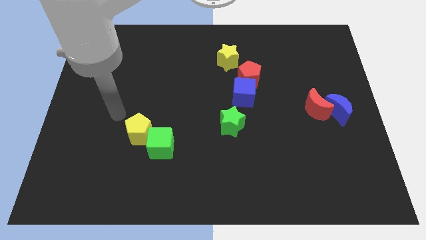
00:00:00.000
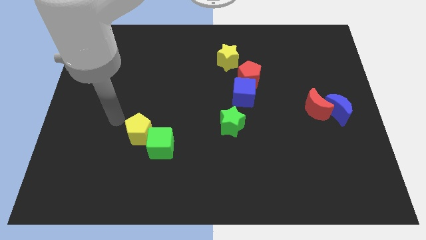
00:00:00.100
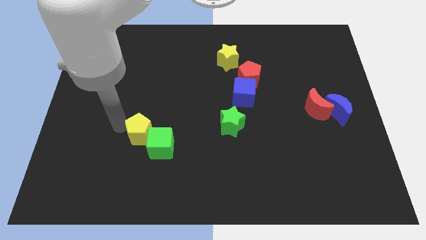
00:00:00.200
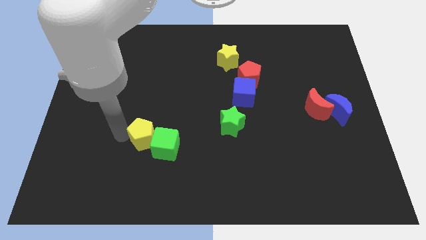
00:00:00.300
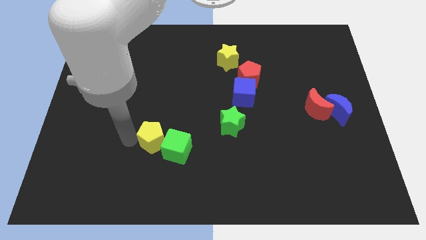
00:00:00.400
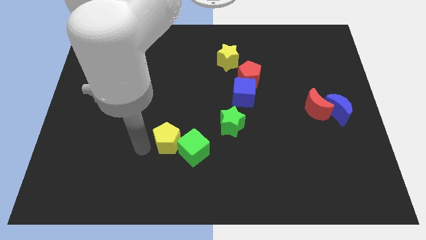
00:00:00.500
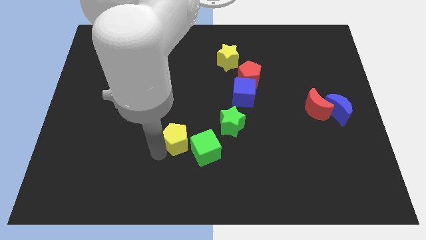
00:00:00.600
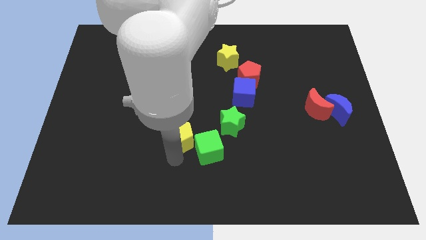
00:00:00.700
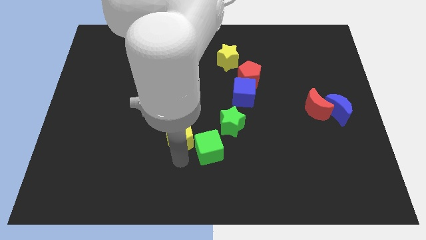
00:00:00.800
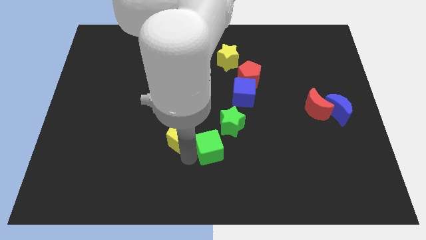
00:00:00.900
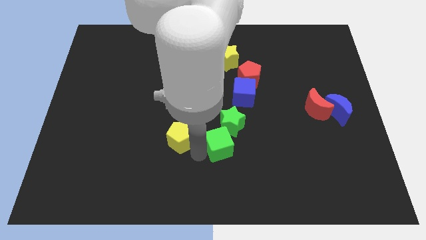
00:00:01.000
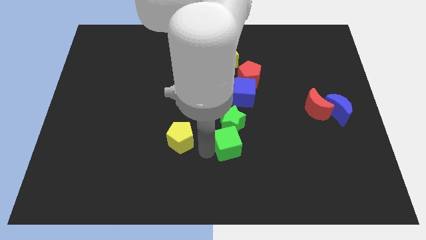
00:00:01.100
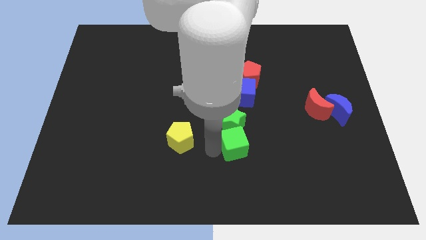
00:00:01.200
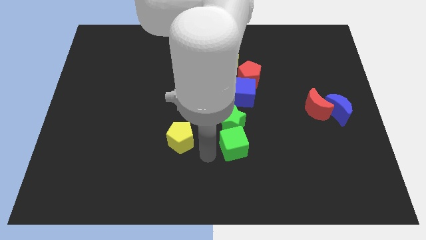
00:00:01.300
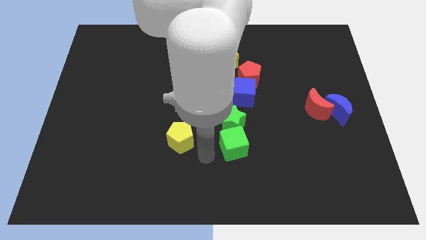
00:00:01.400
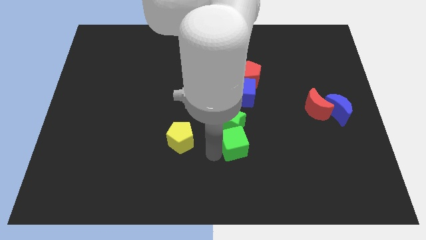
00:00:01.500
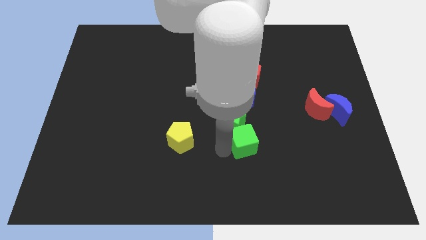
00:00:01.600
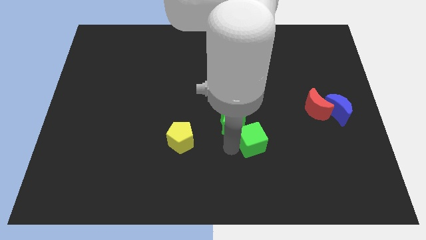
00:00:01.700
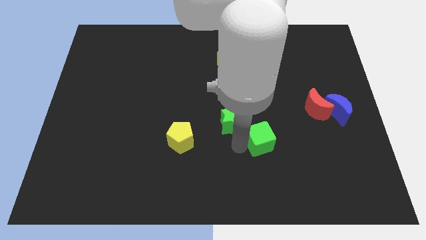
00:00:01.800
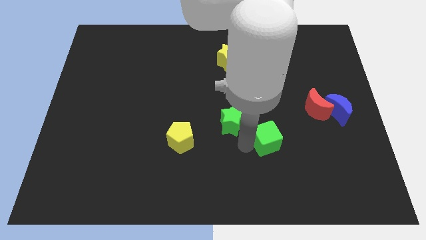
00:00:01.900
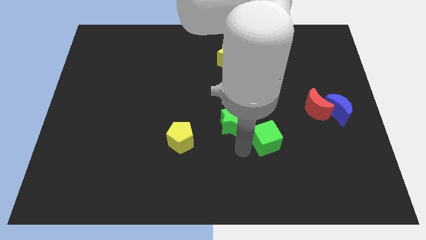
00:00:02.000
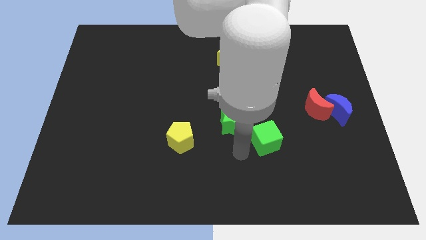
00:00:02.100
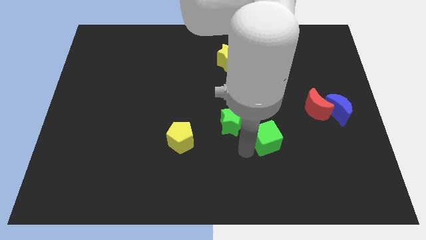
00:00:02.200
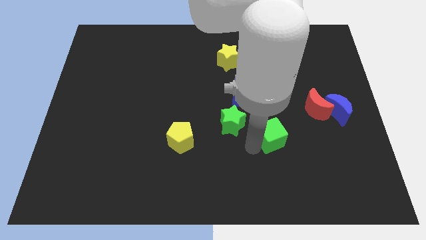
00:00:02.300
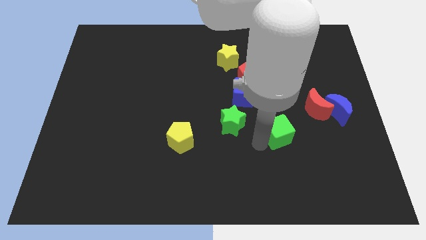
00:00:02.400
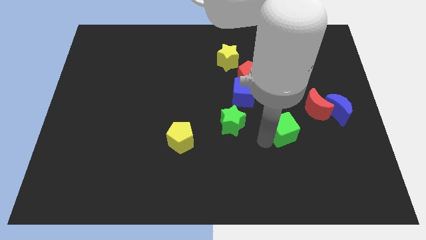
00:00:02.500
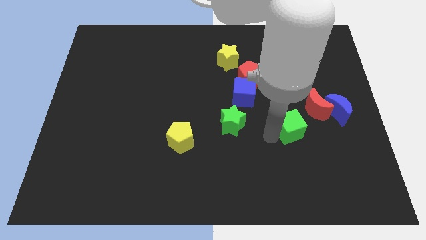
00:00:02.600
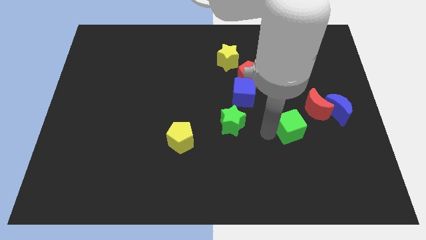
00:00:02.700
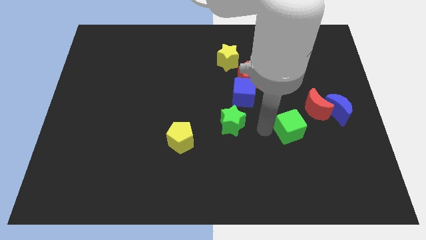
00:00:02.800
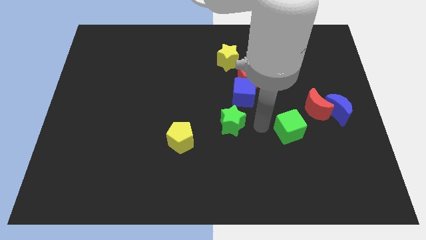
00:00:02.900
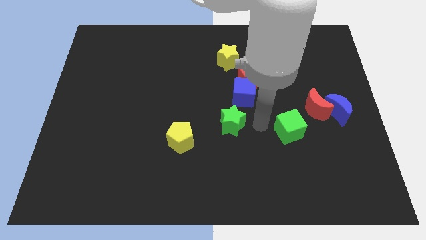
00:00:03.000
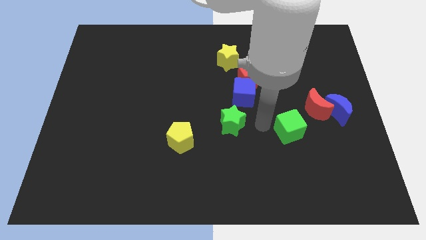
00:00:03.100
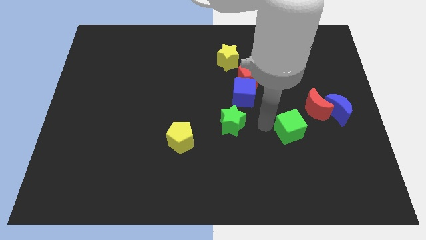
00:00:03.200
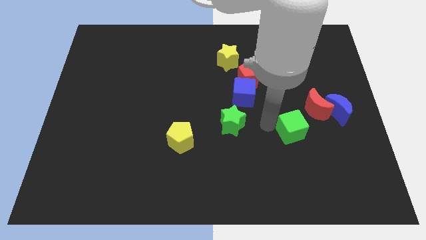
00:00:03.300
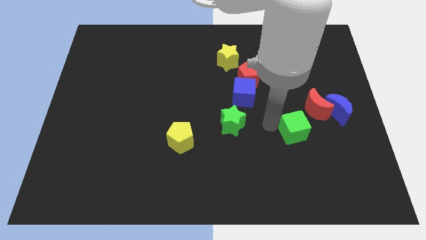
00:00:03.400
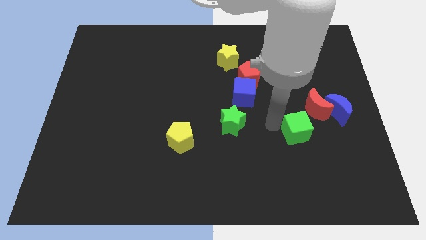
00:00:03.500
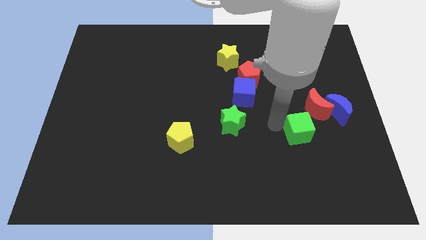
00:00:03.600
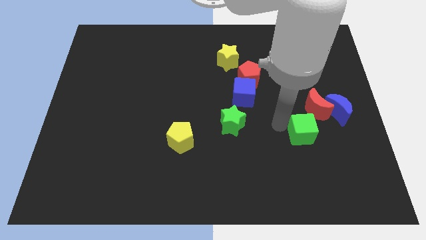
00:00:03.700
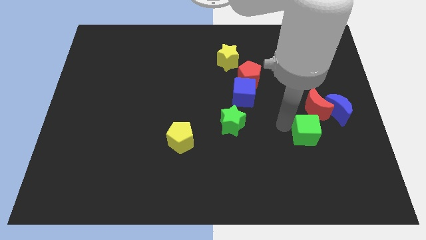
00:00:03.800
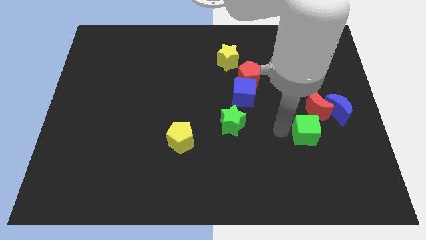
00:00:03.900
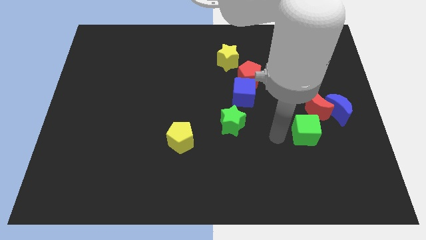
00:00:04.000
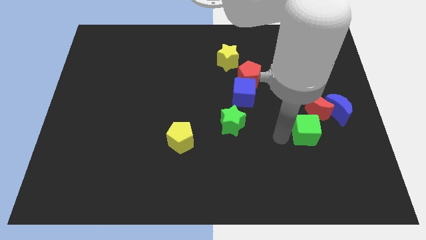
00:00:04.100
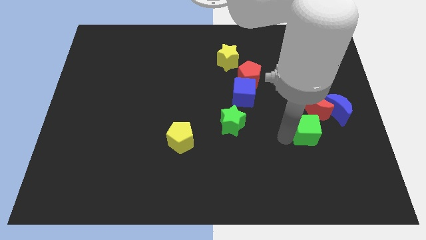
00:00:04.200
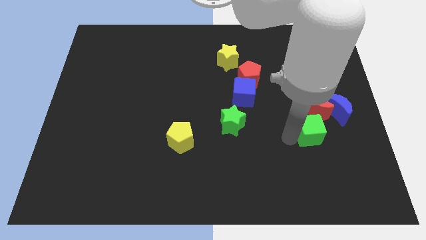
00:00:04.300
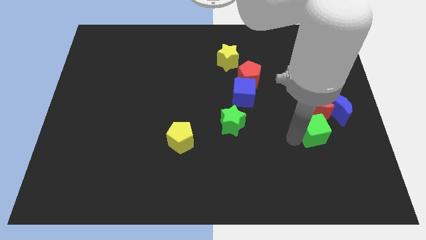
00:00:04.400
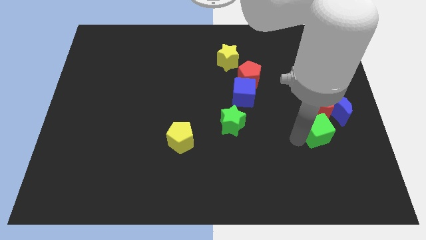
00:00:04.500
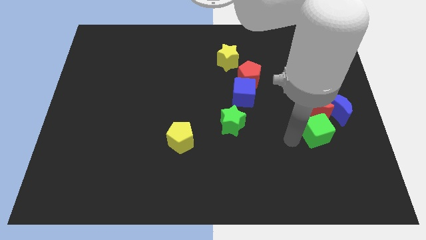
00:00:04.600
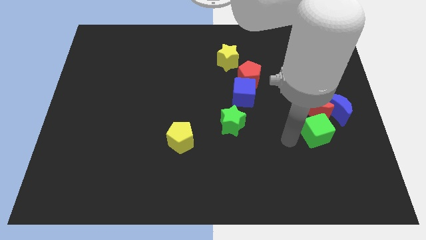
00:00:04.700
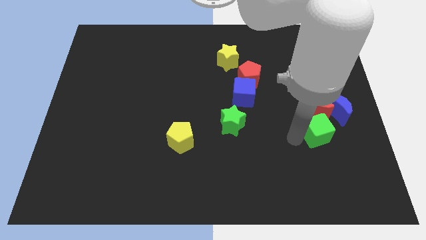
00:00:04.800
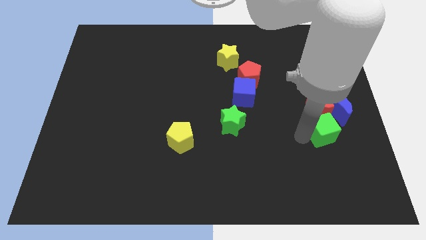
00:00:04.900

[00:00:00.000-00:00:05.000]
put the green cube to the bottom right of the red moon

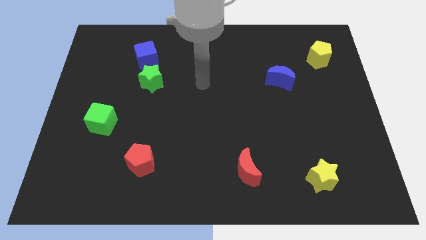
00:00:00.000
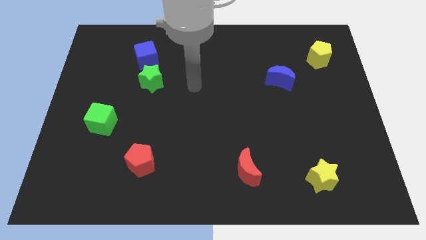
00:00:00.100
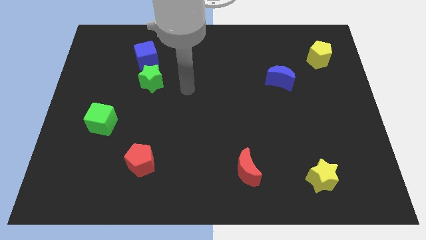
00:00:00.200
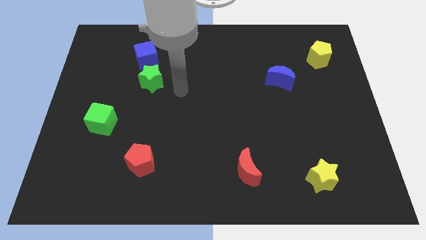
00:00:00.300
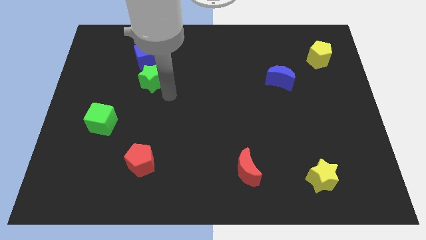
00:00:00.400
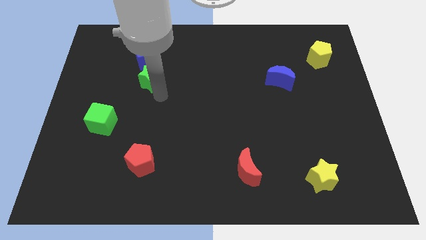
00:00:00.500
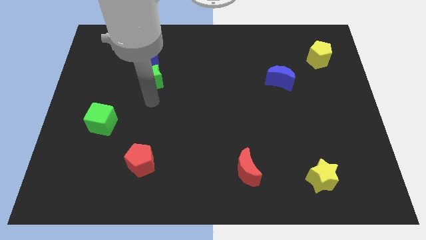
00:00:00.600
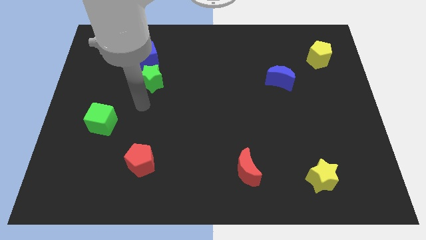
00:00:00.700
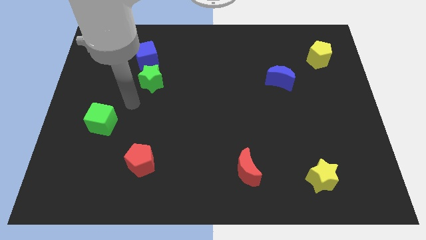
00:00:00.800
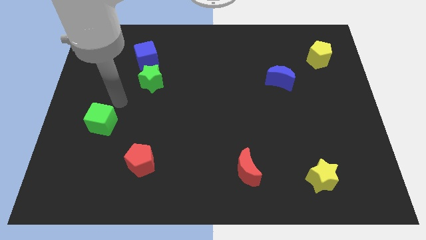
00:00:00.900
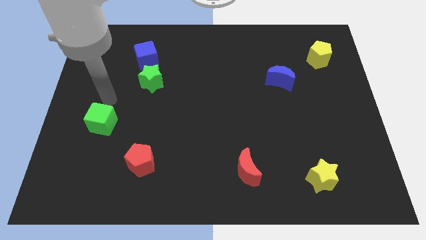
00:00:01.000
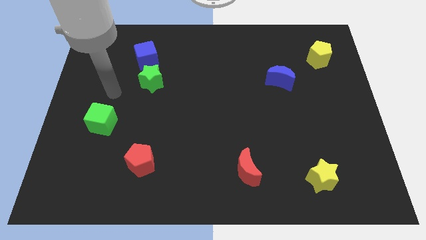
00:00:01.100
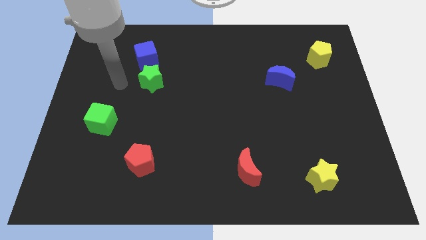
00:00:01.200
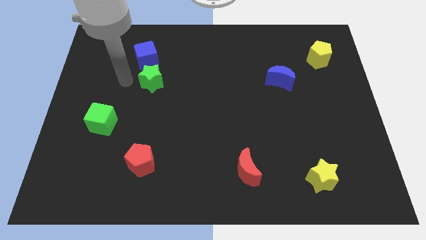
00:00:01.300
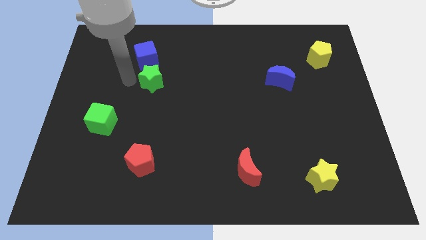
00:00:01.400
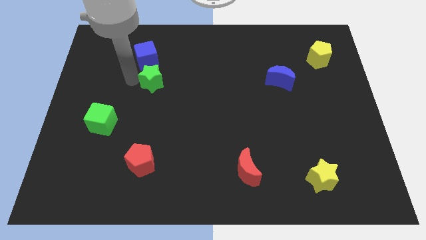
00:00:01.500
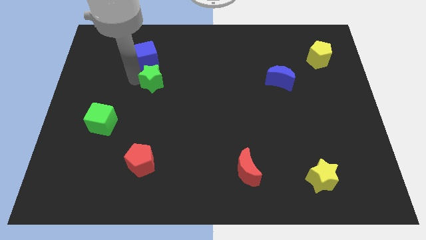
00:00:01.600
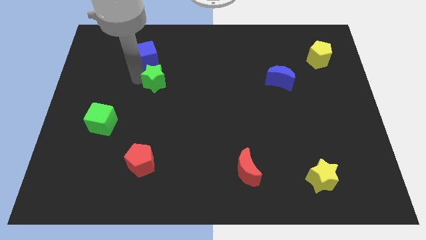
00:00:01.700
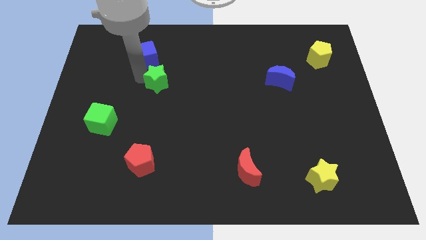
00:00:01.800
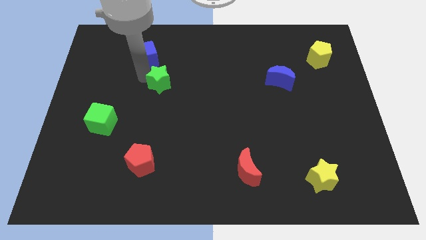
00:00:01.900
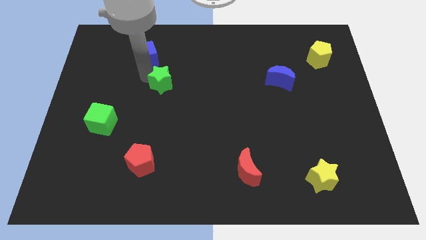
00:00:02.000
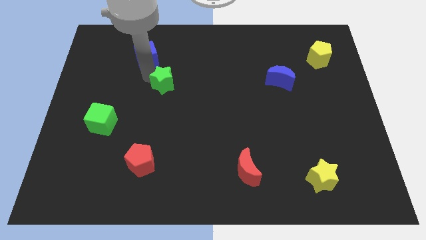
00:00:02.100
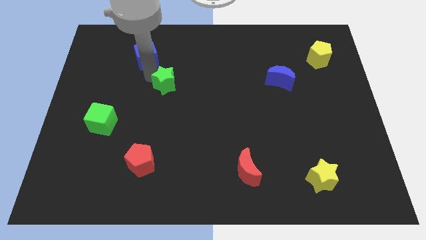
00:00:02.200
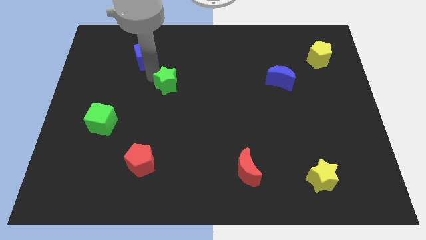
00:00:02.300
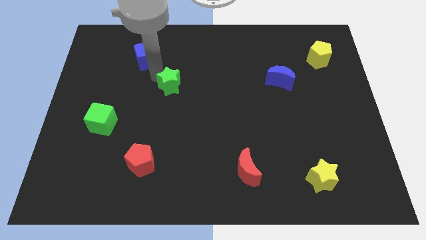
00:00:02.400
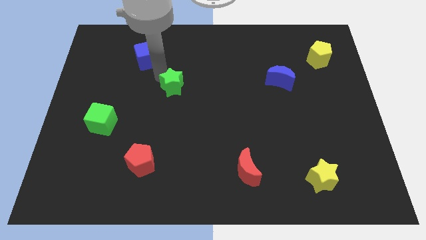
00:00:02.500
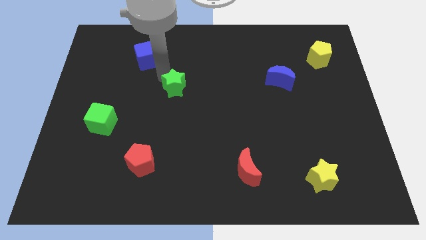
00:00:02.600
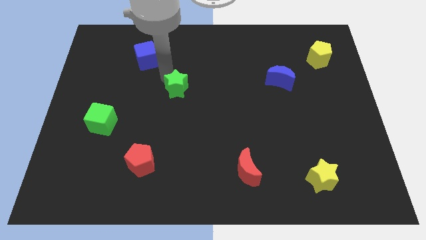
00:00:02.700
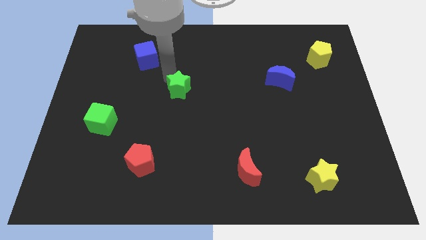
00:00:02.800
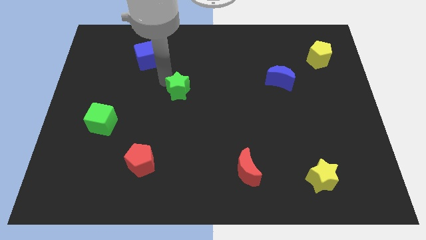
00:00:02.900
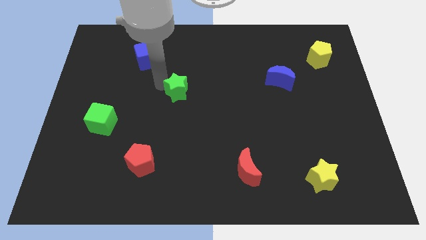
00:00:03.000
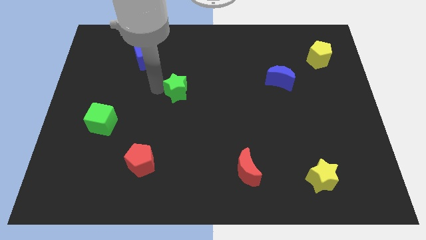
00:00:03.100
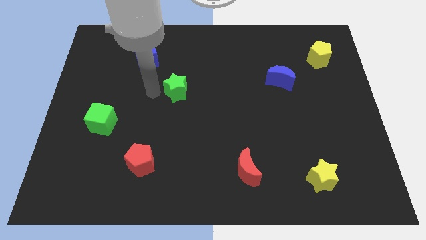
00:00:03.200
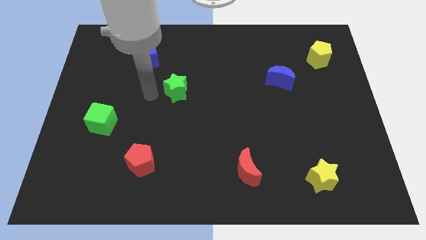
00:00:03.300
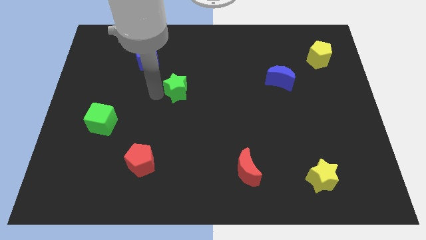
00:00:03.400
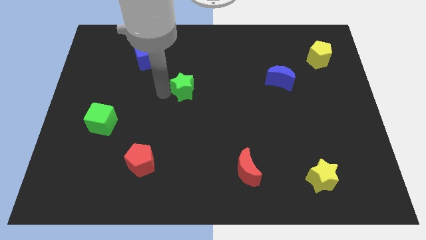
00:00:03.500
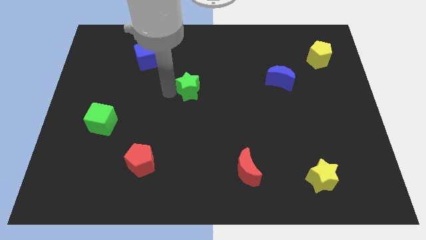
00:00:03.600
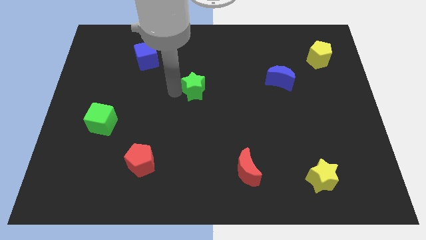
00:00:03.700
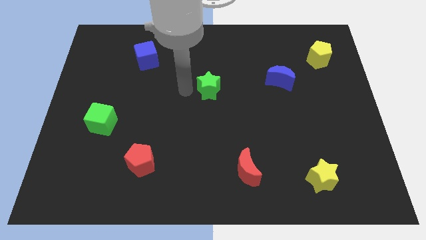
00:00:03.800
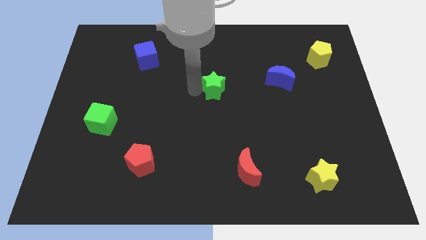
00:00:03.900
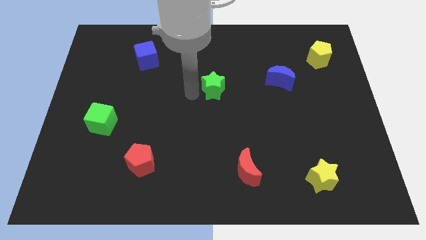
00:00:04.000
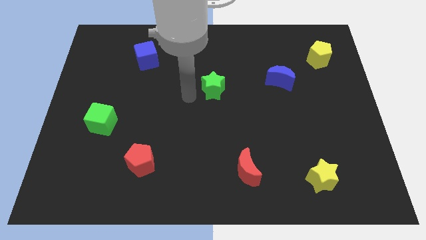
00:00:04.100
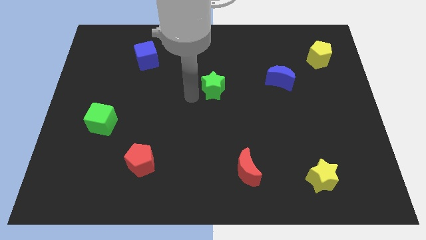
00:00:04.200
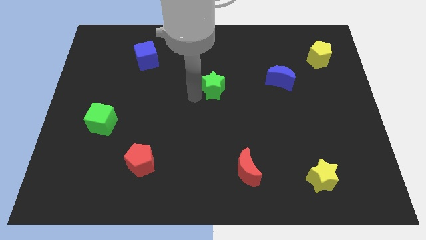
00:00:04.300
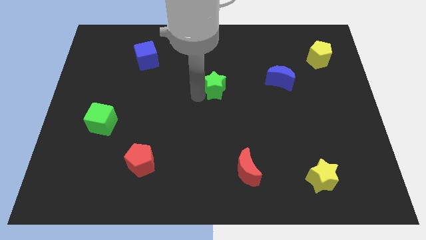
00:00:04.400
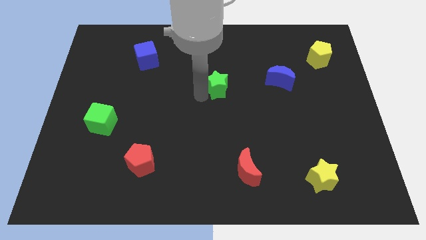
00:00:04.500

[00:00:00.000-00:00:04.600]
move the green star left of the blue moon
